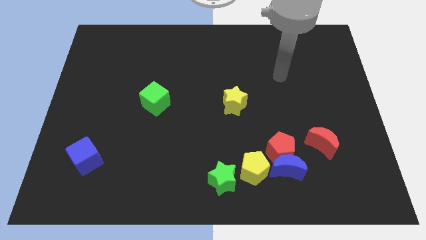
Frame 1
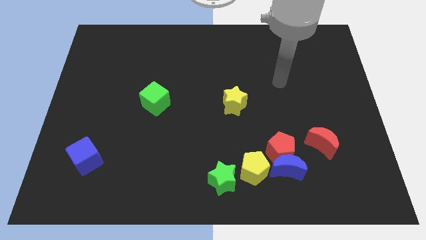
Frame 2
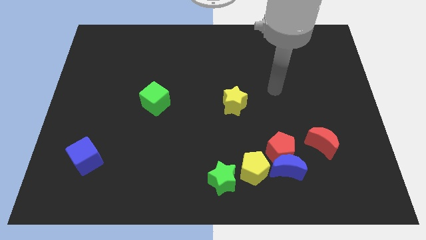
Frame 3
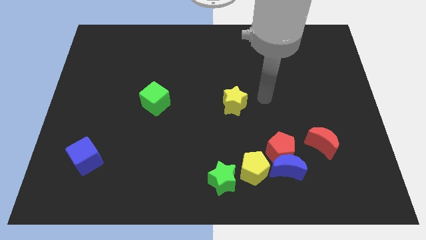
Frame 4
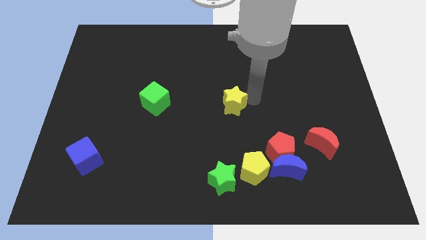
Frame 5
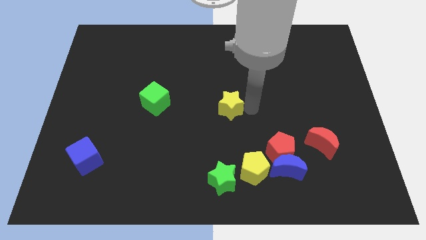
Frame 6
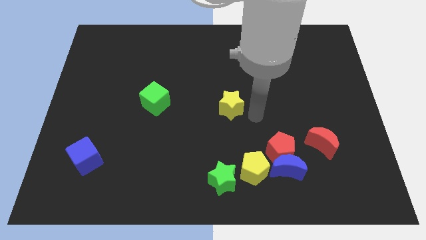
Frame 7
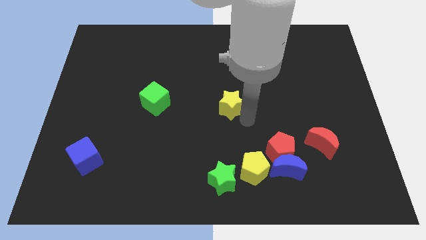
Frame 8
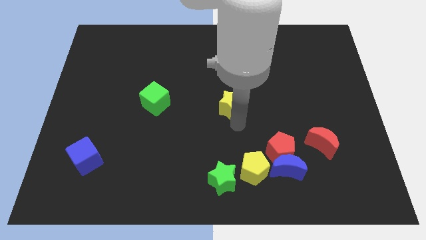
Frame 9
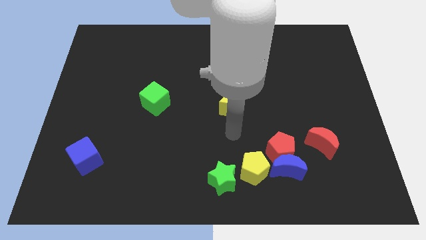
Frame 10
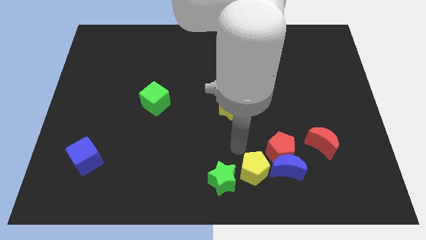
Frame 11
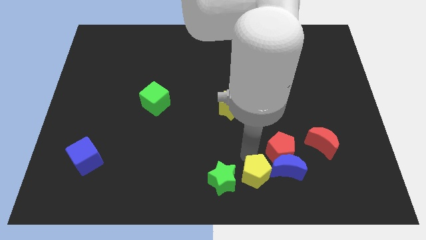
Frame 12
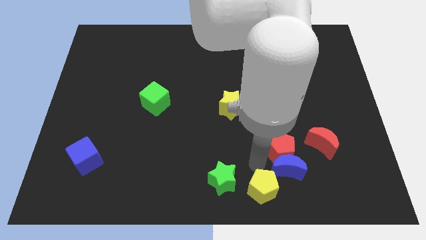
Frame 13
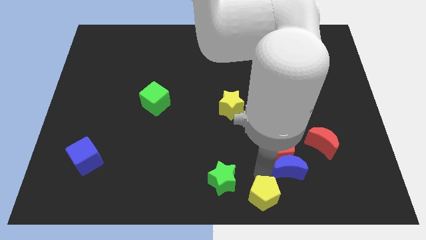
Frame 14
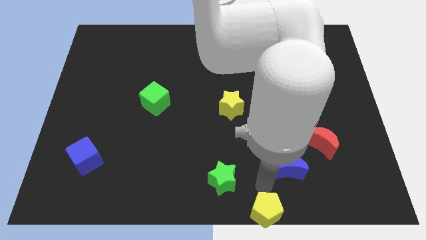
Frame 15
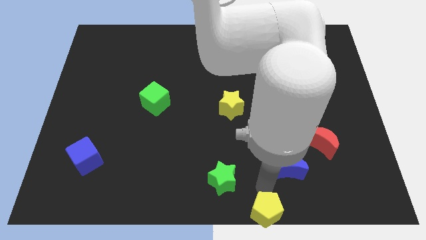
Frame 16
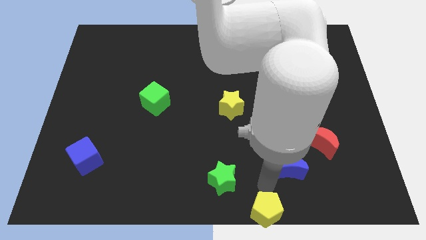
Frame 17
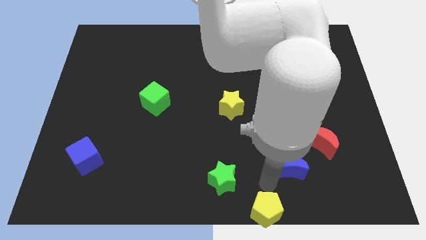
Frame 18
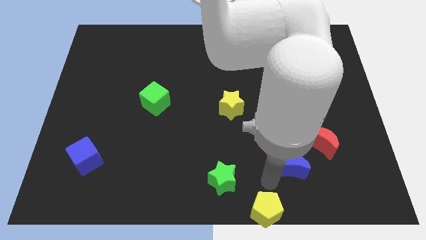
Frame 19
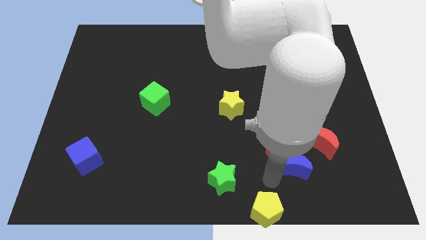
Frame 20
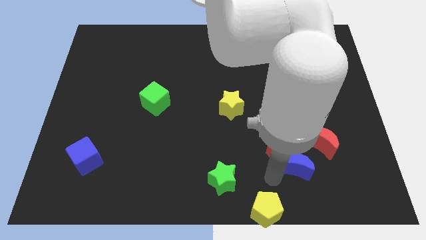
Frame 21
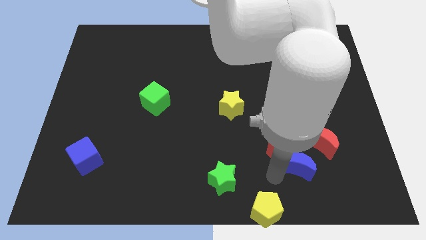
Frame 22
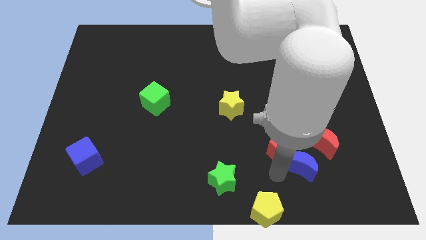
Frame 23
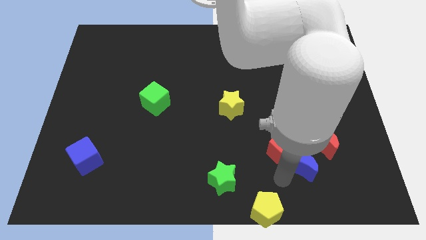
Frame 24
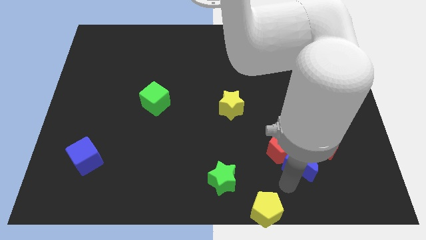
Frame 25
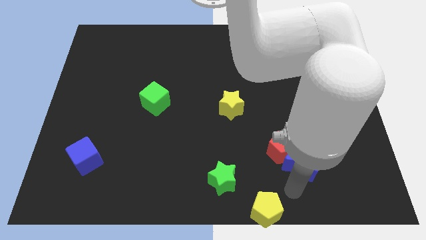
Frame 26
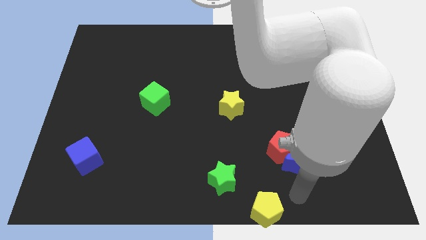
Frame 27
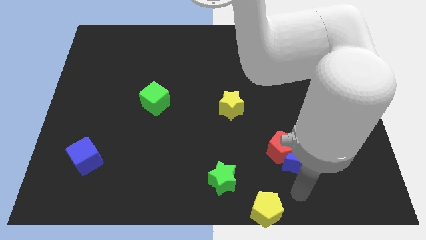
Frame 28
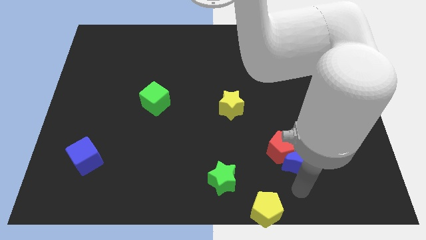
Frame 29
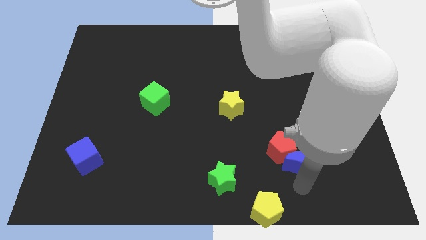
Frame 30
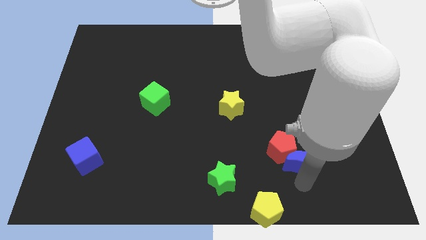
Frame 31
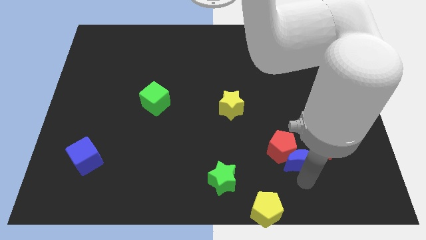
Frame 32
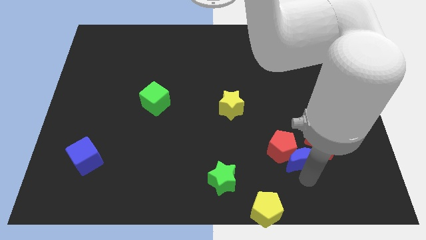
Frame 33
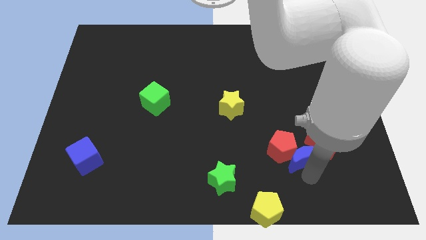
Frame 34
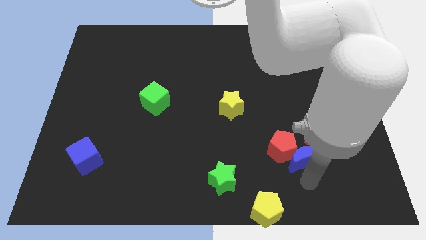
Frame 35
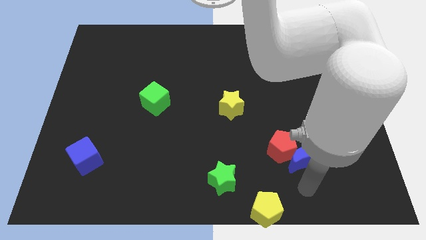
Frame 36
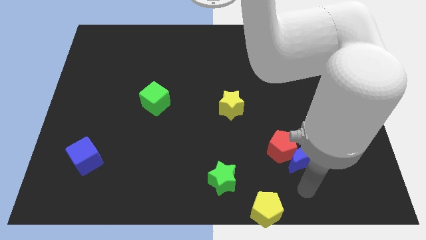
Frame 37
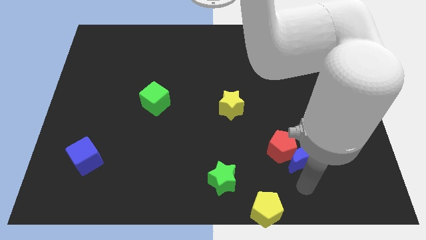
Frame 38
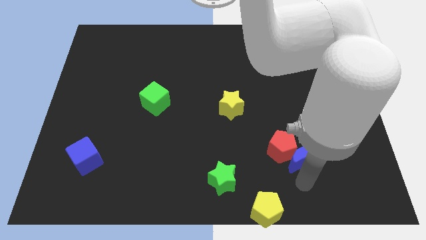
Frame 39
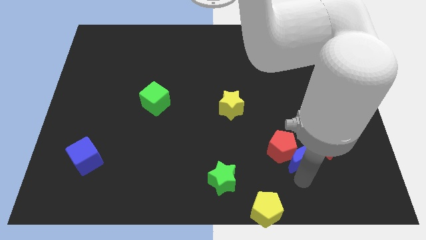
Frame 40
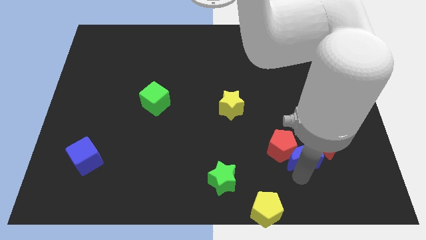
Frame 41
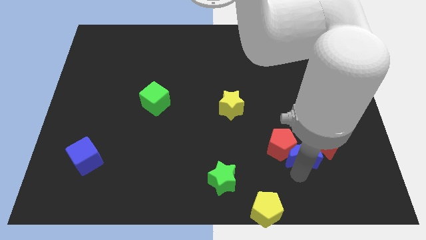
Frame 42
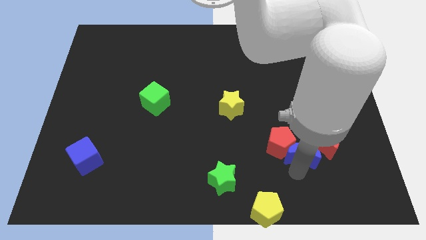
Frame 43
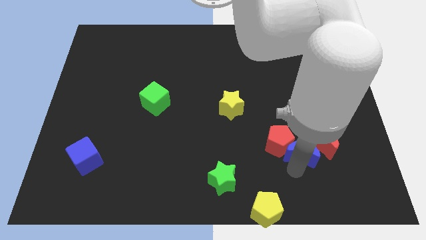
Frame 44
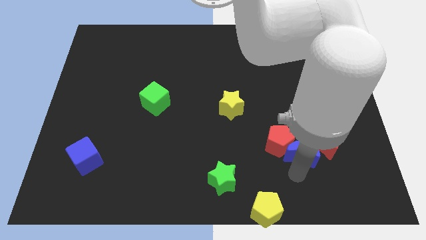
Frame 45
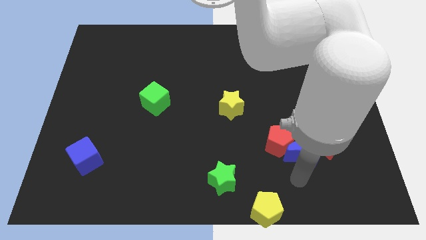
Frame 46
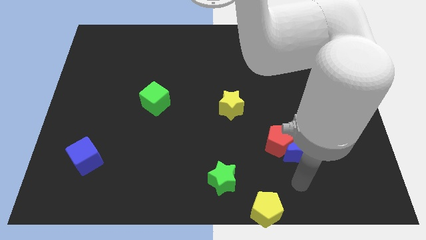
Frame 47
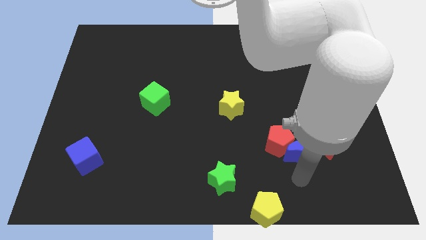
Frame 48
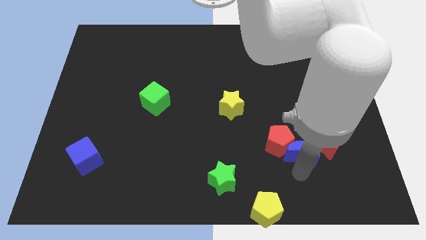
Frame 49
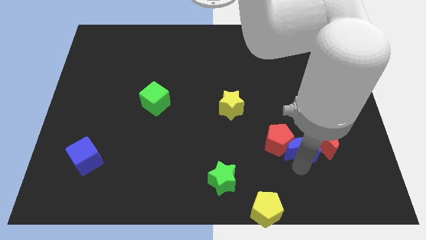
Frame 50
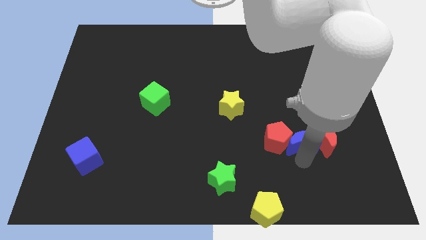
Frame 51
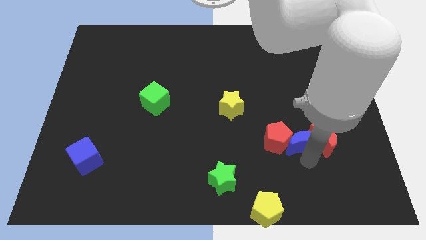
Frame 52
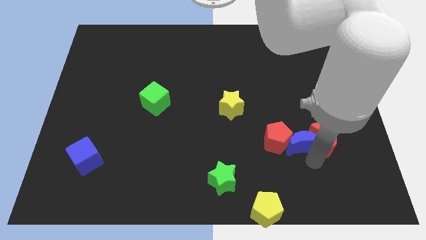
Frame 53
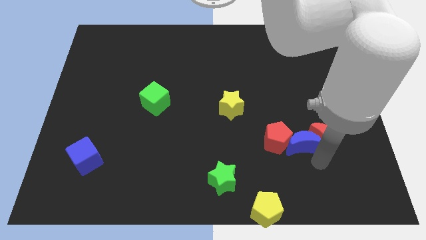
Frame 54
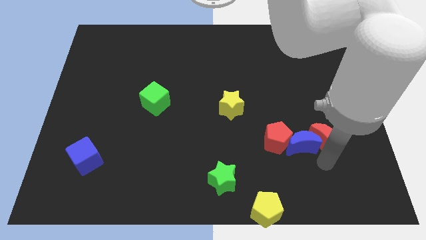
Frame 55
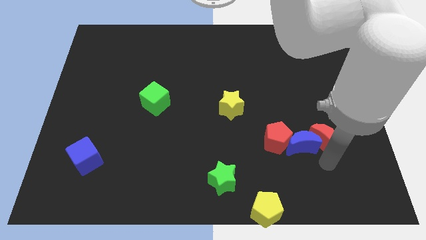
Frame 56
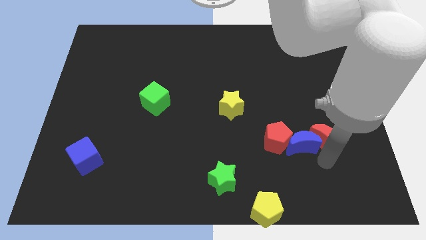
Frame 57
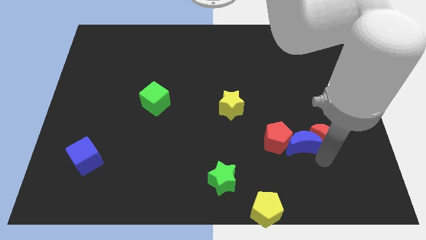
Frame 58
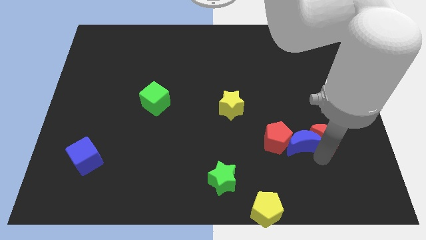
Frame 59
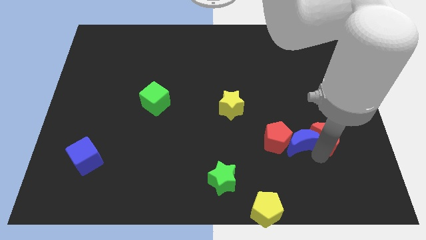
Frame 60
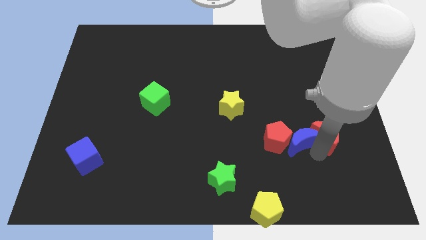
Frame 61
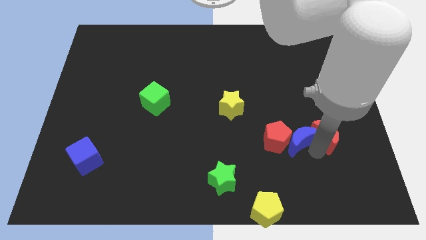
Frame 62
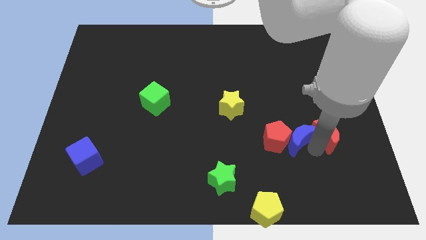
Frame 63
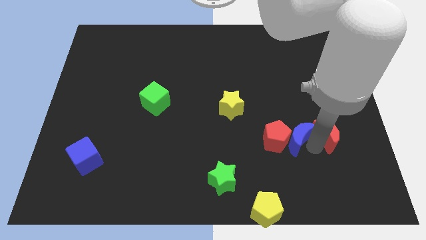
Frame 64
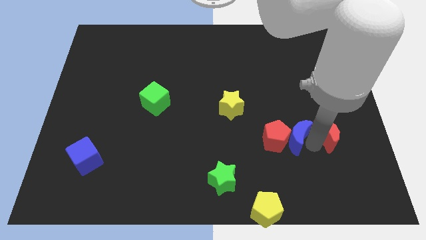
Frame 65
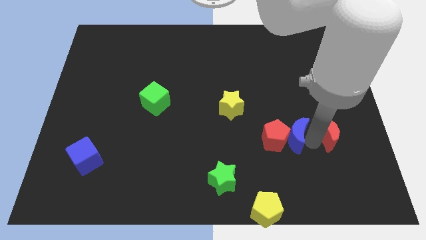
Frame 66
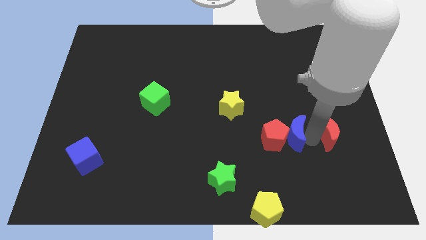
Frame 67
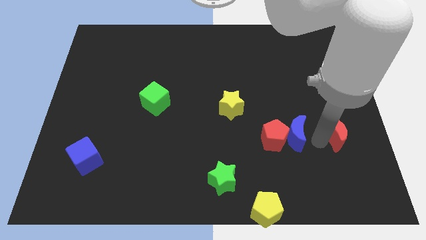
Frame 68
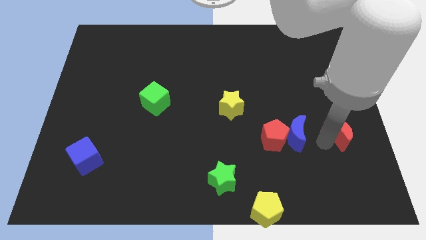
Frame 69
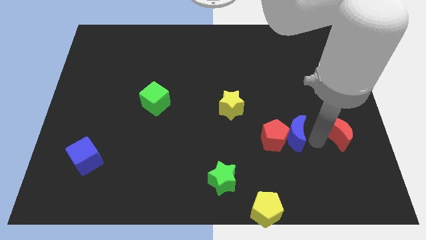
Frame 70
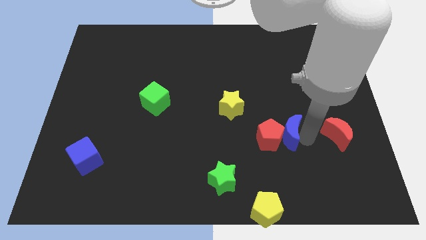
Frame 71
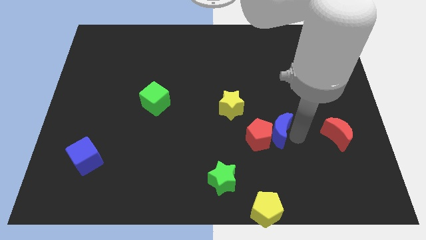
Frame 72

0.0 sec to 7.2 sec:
put the blue moon diagonally down and to the right of the yellow star

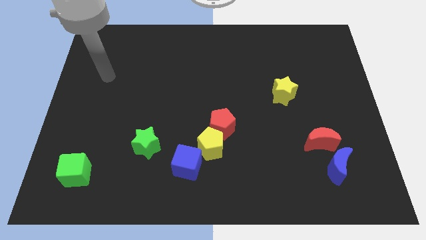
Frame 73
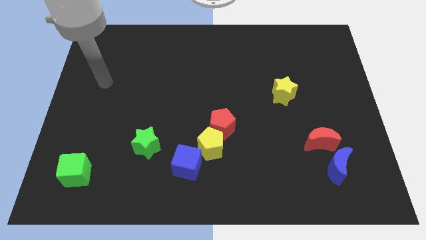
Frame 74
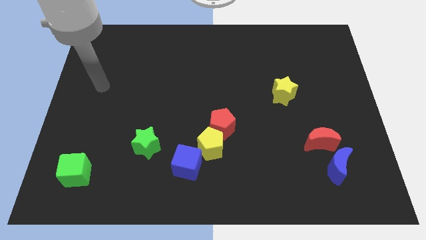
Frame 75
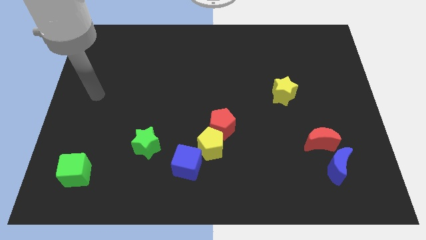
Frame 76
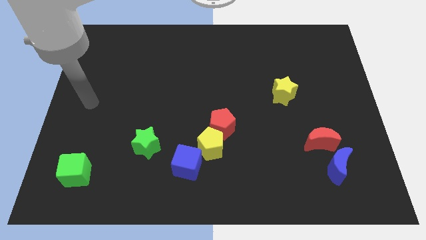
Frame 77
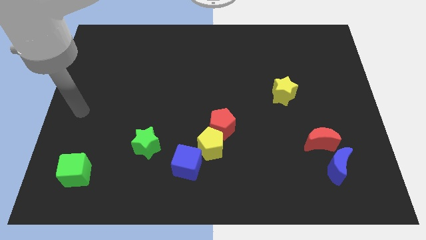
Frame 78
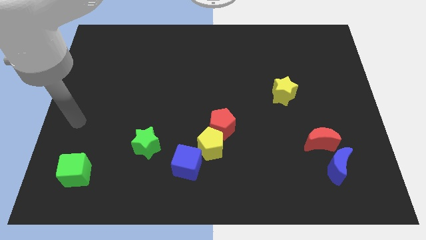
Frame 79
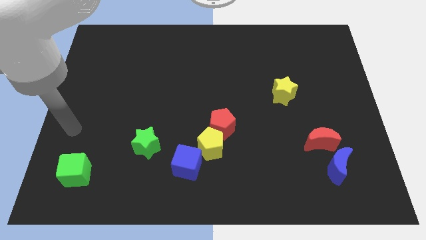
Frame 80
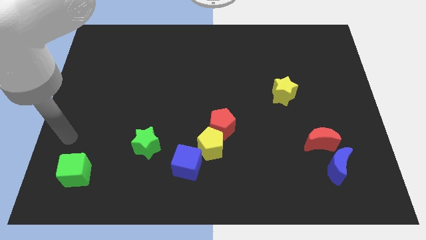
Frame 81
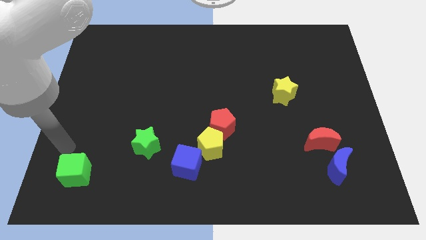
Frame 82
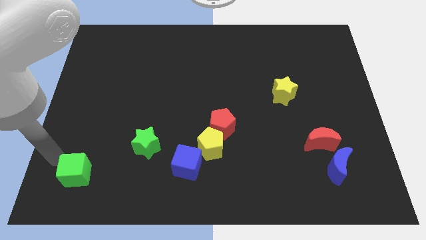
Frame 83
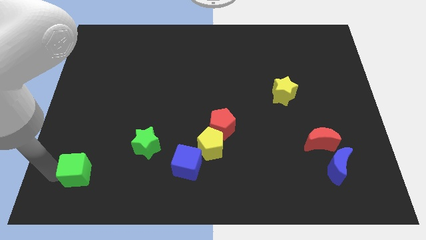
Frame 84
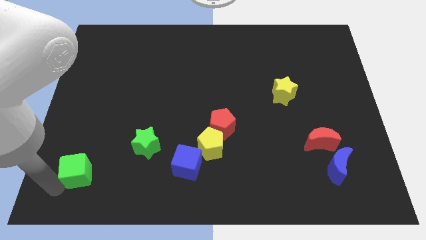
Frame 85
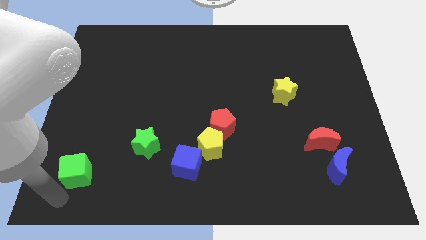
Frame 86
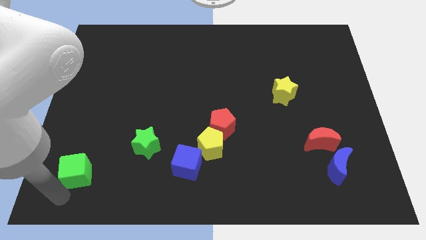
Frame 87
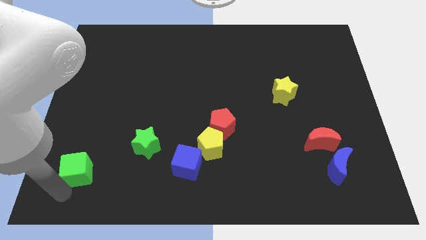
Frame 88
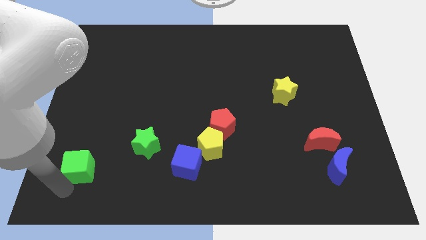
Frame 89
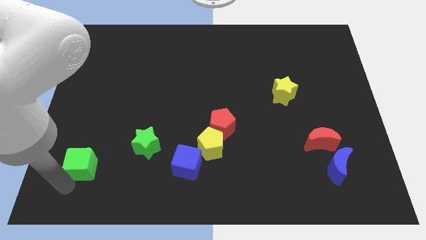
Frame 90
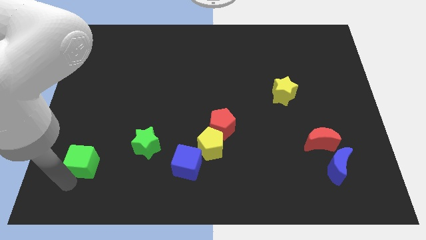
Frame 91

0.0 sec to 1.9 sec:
move the green cube to the left side of the green star
